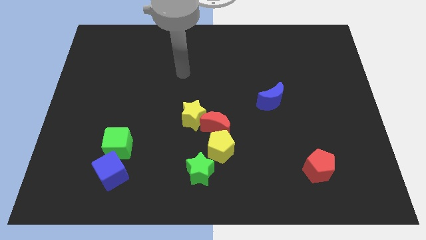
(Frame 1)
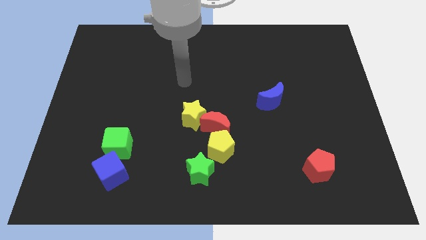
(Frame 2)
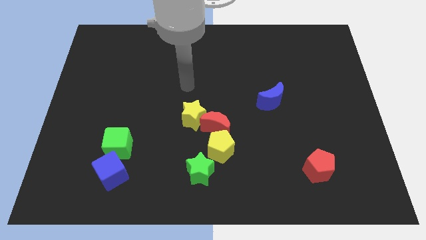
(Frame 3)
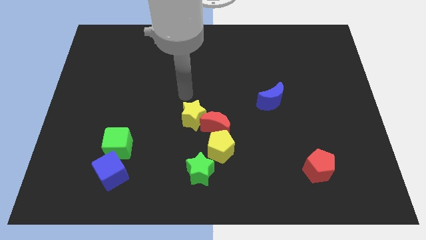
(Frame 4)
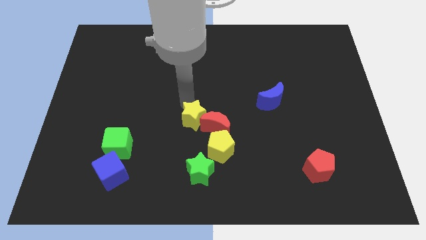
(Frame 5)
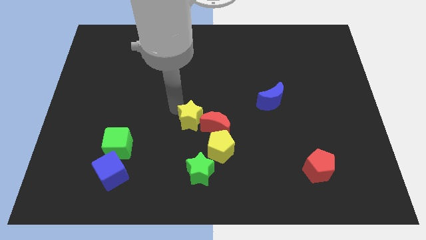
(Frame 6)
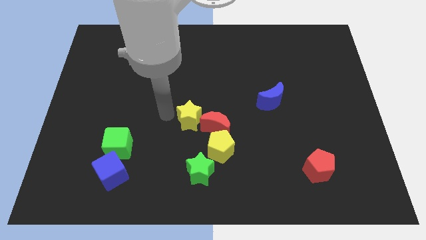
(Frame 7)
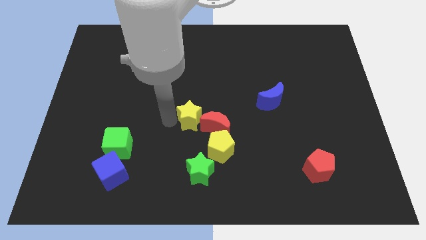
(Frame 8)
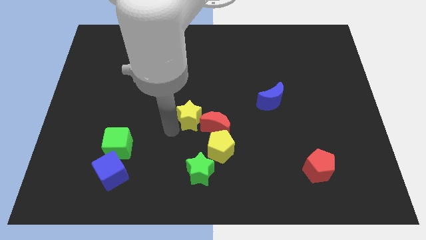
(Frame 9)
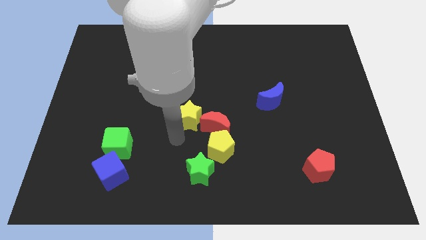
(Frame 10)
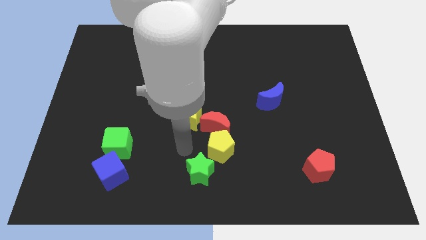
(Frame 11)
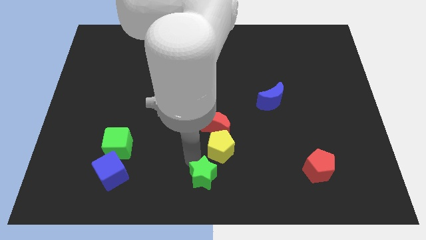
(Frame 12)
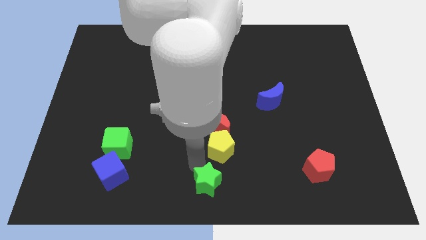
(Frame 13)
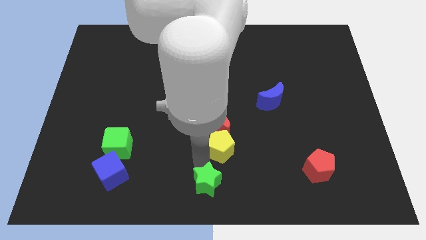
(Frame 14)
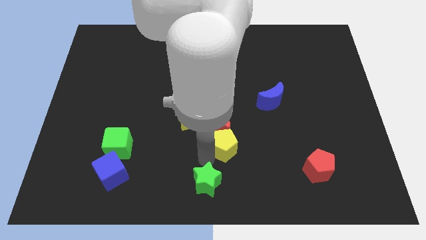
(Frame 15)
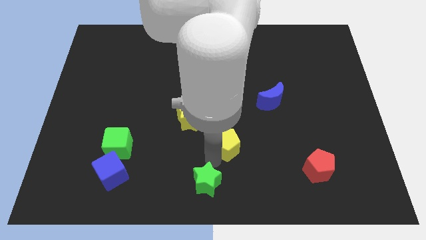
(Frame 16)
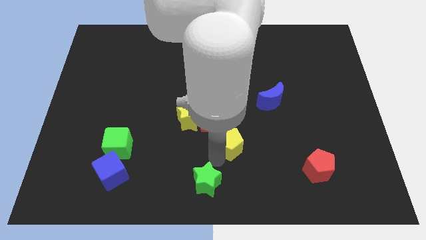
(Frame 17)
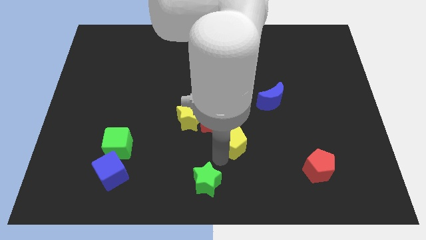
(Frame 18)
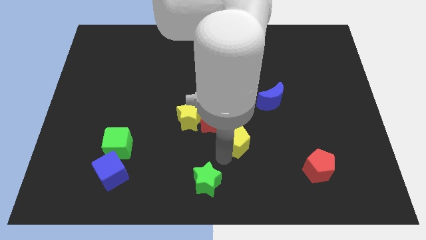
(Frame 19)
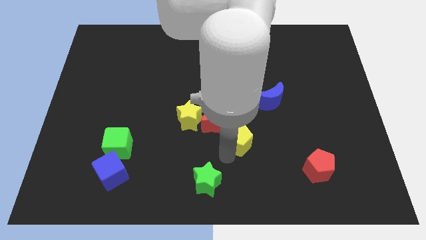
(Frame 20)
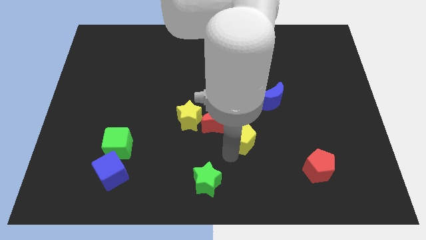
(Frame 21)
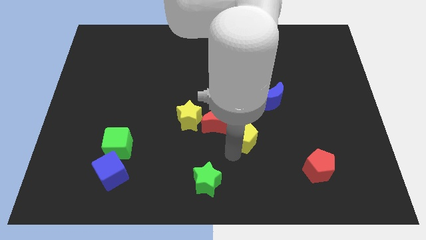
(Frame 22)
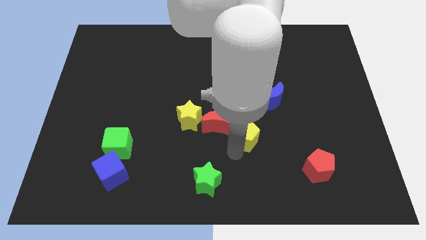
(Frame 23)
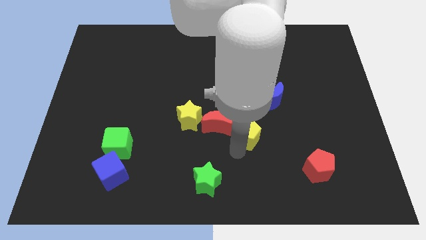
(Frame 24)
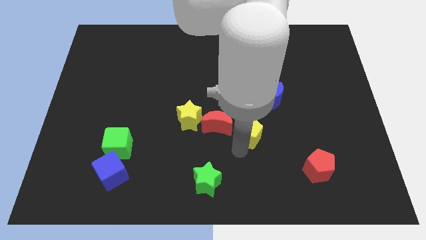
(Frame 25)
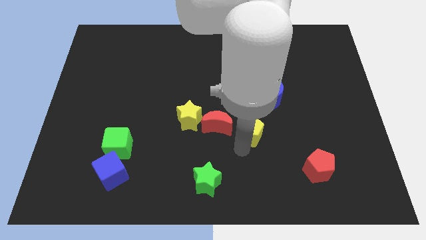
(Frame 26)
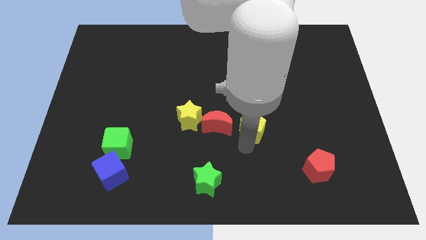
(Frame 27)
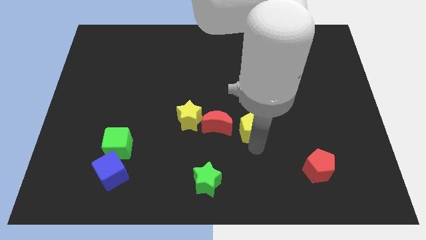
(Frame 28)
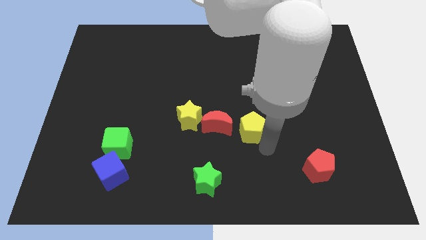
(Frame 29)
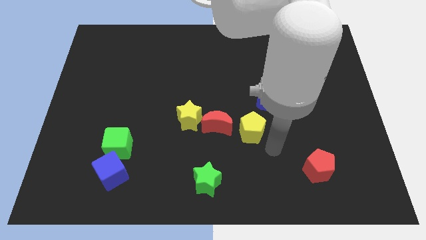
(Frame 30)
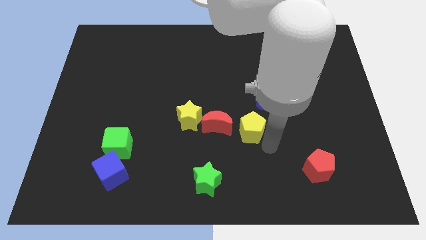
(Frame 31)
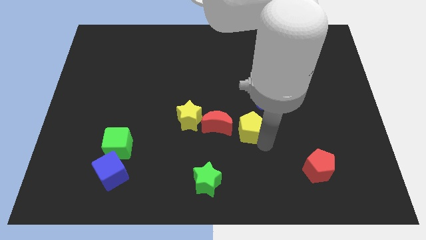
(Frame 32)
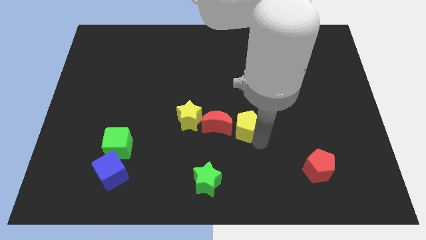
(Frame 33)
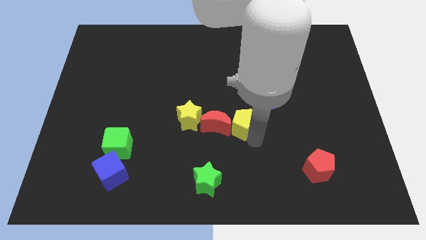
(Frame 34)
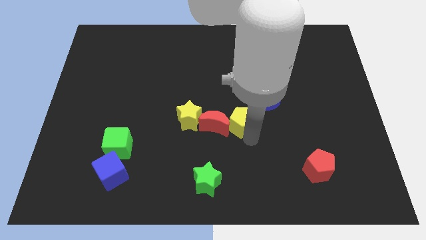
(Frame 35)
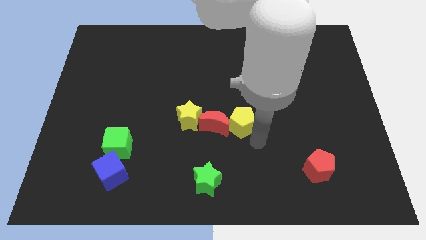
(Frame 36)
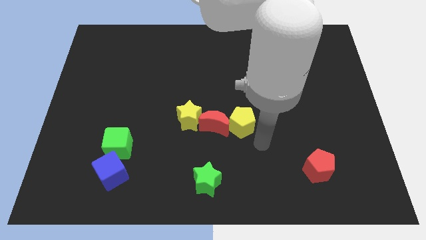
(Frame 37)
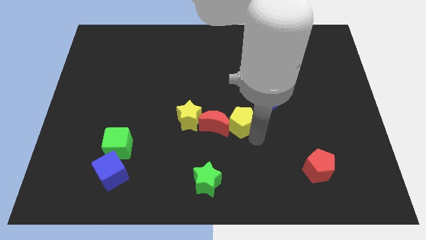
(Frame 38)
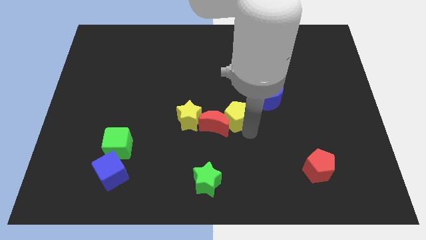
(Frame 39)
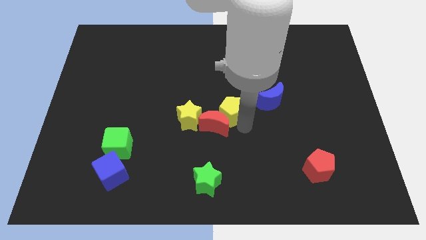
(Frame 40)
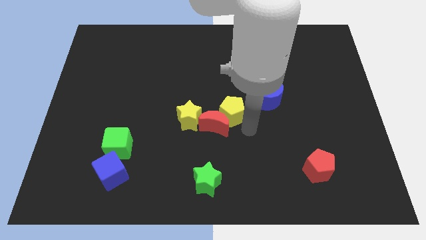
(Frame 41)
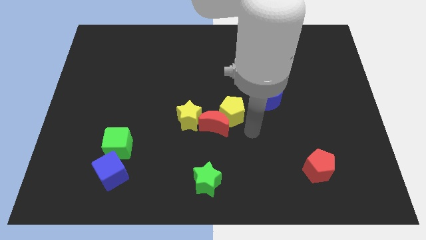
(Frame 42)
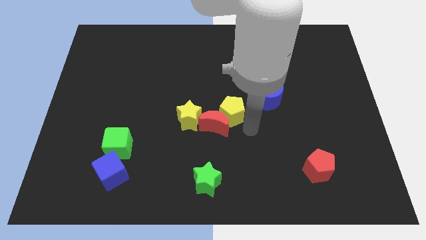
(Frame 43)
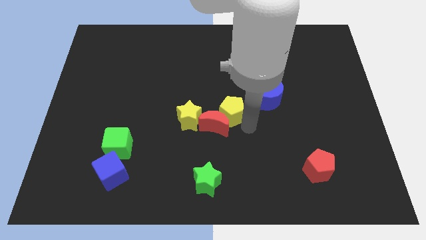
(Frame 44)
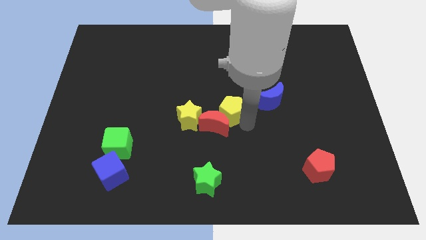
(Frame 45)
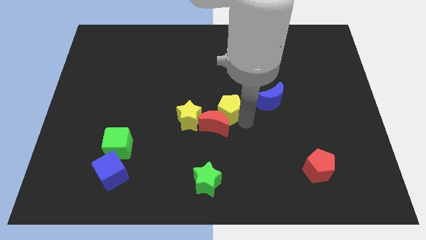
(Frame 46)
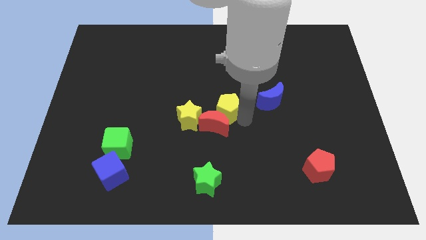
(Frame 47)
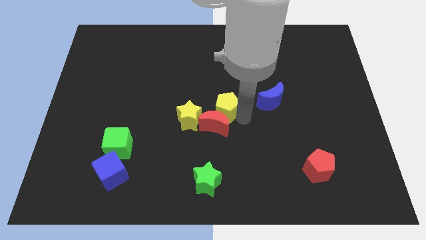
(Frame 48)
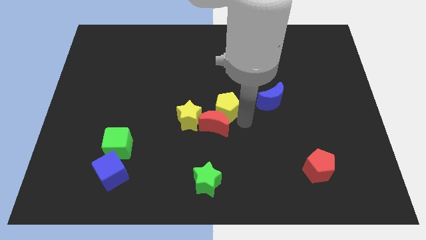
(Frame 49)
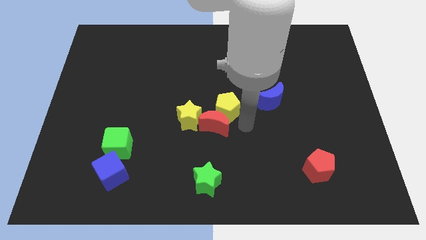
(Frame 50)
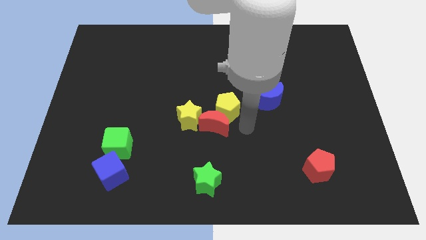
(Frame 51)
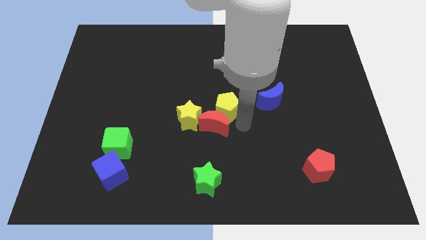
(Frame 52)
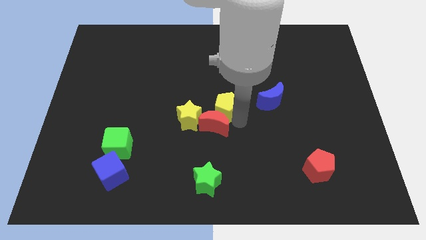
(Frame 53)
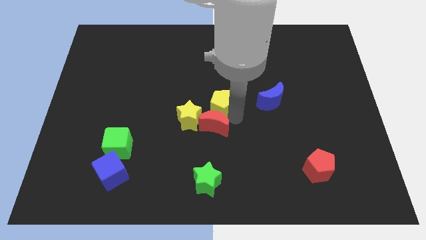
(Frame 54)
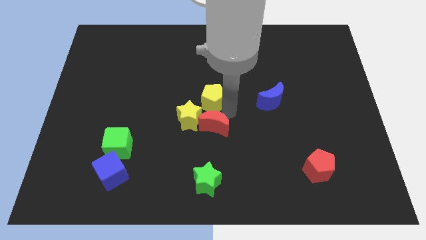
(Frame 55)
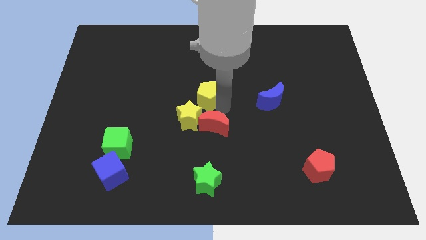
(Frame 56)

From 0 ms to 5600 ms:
move the yellow pentagon to the top side of the yellow star
